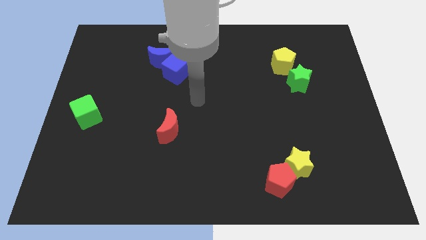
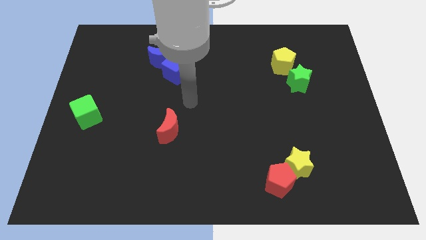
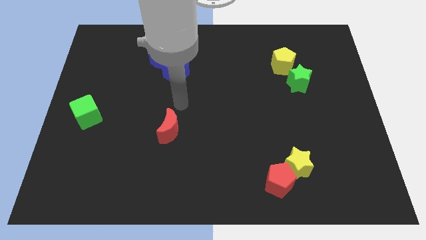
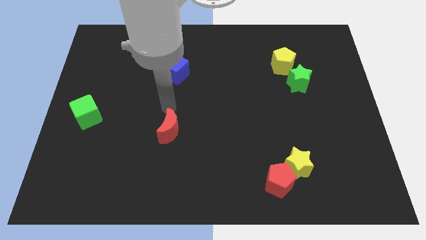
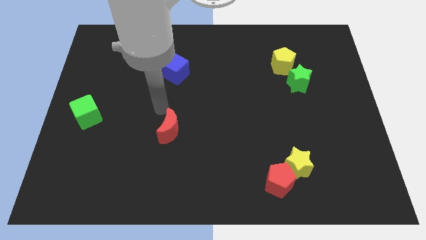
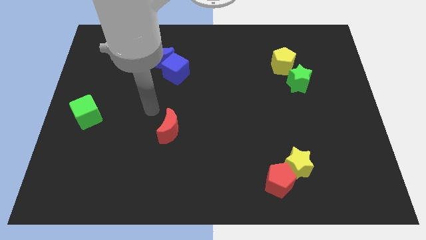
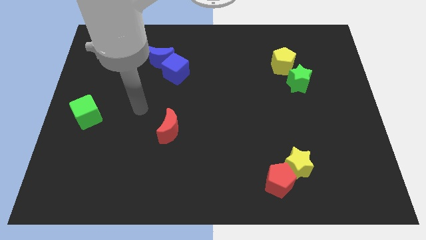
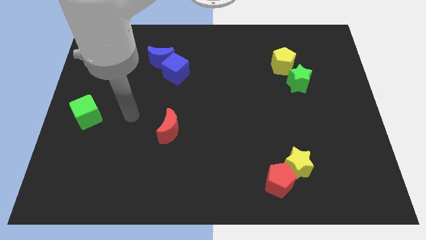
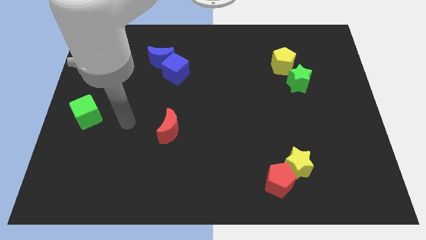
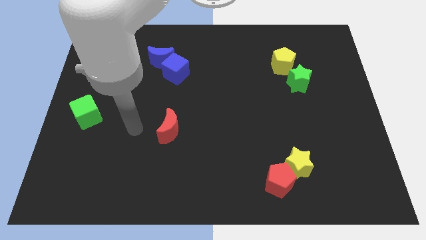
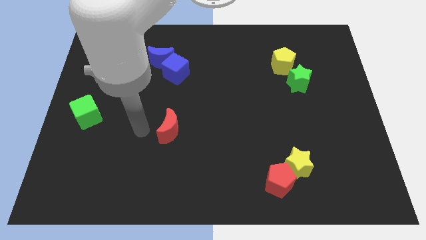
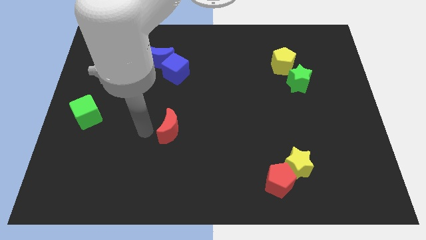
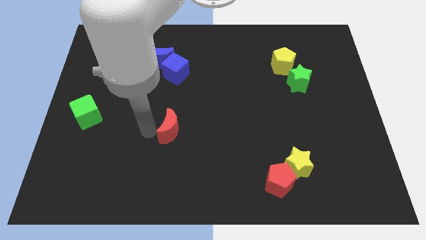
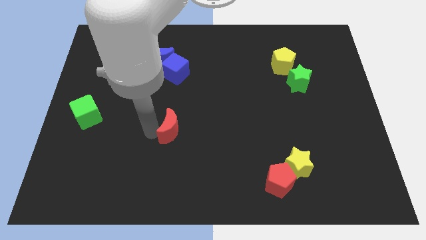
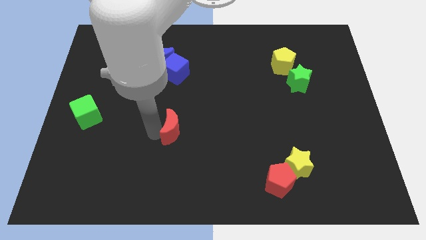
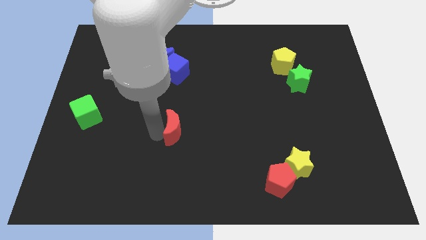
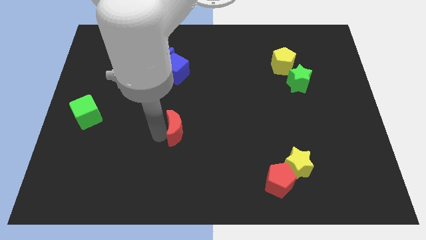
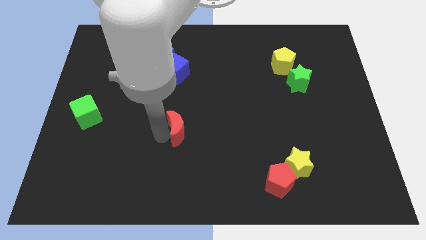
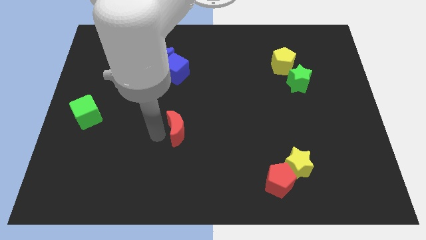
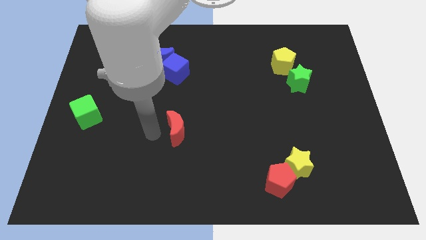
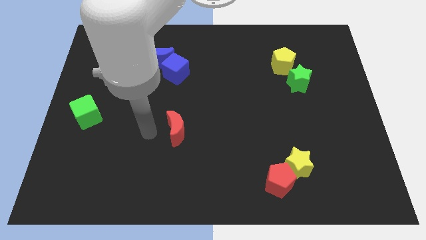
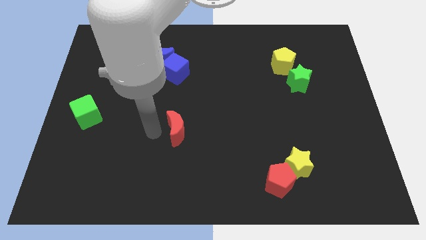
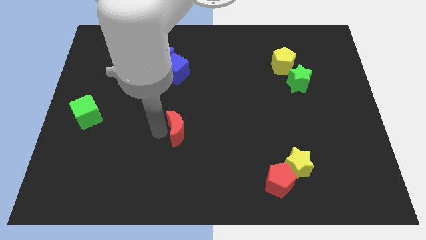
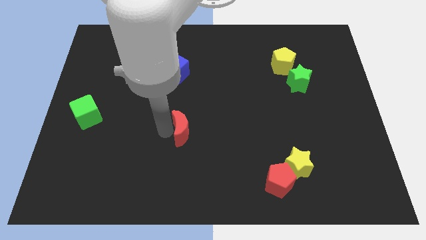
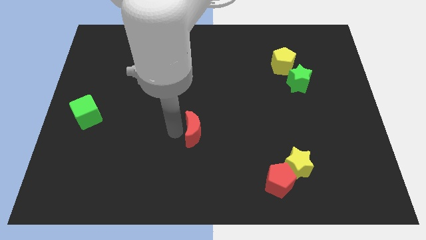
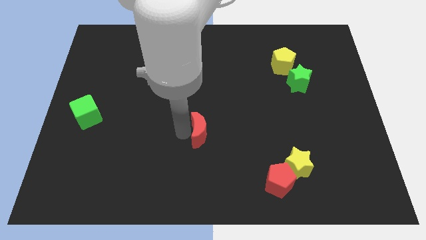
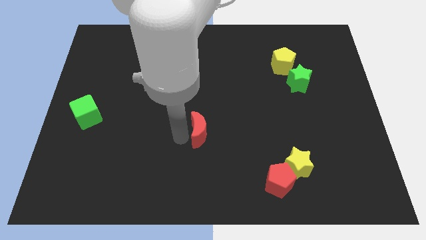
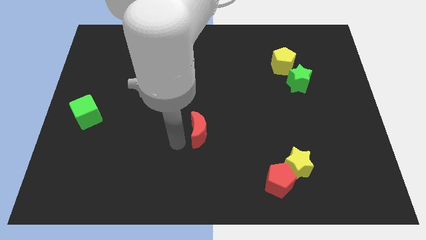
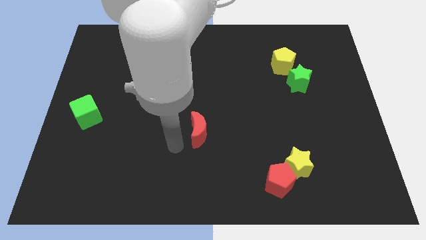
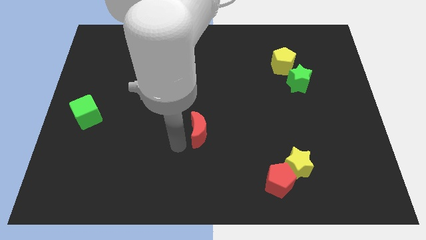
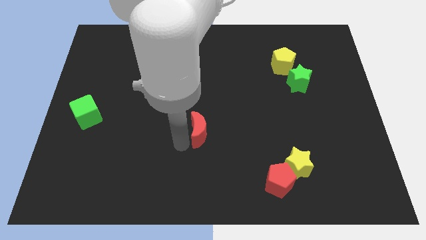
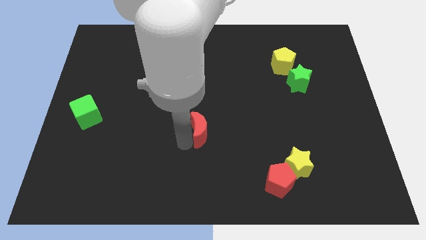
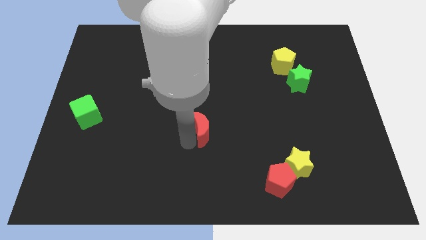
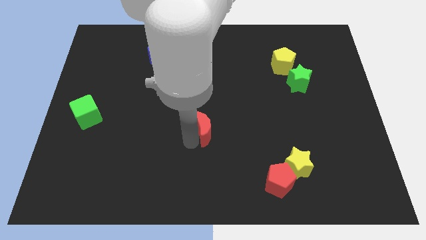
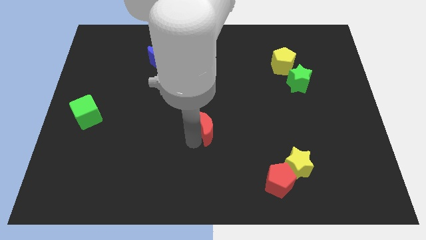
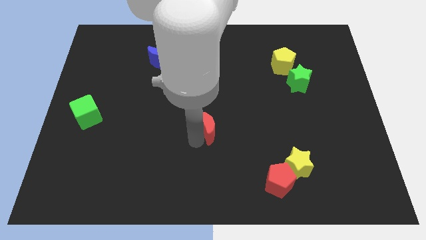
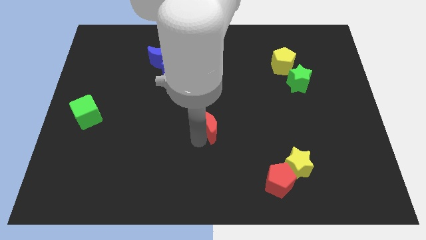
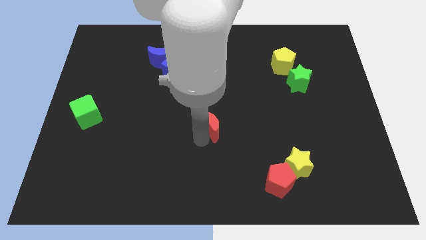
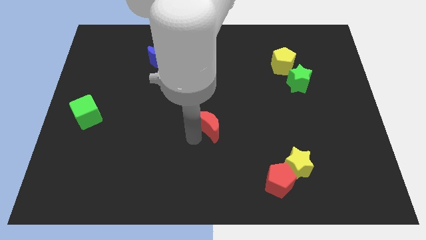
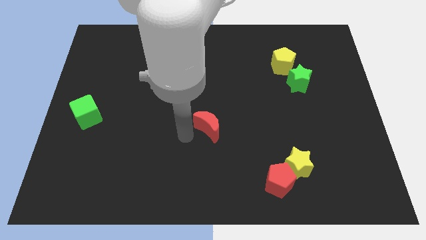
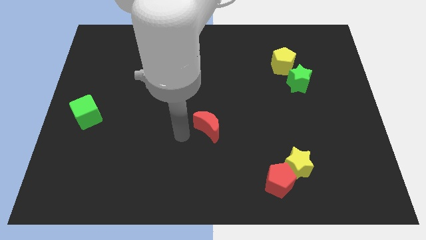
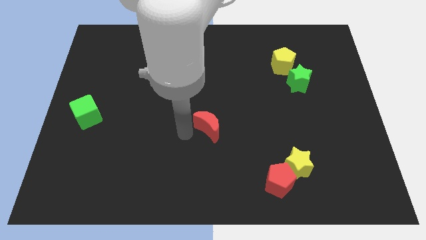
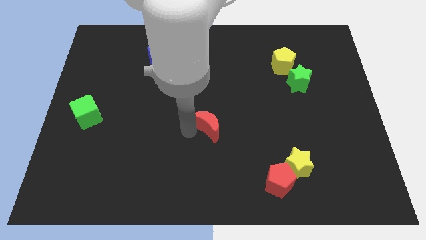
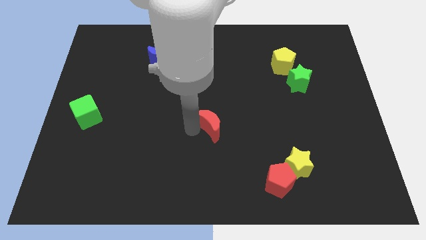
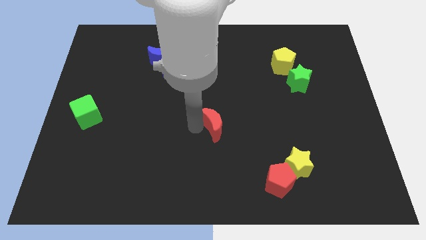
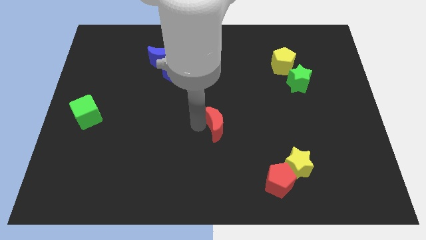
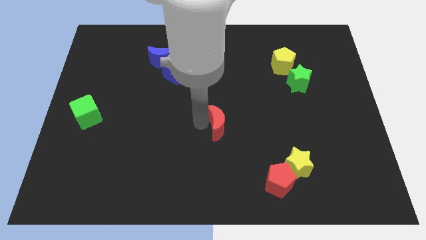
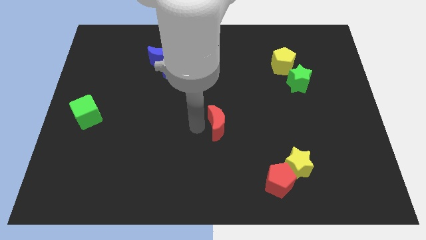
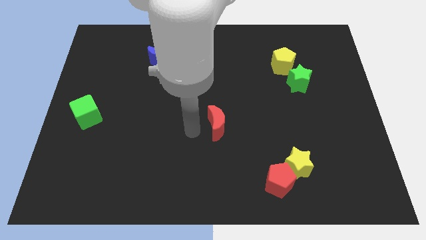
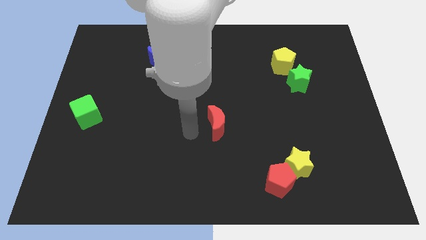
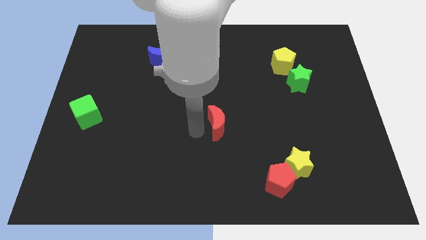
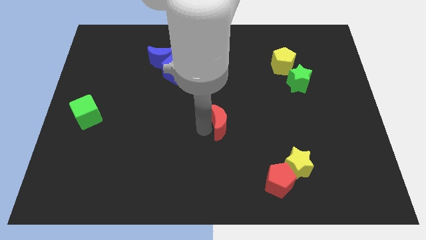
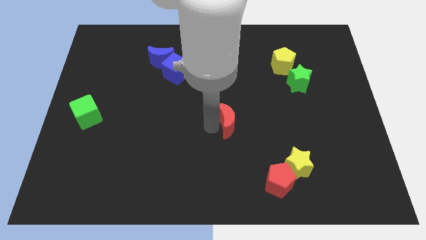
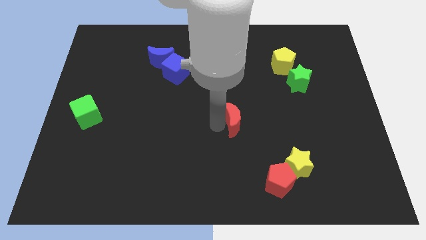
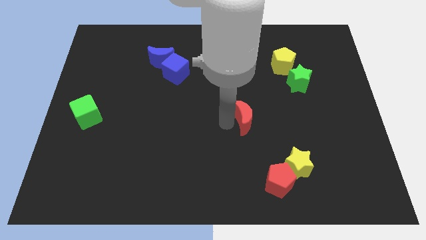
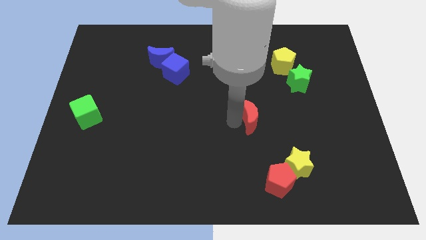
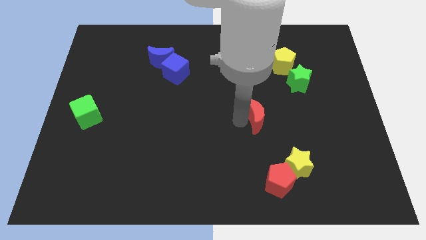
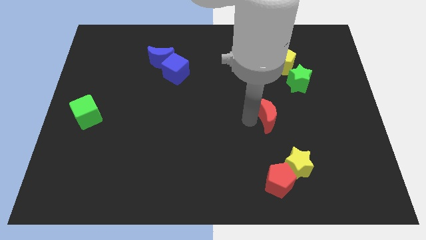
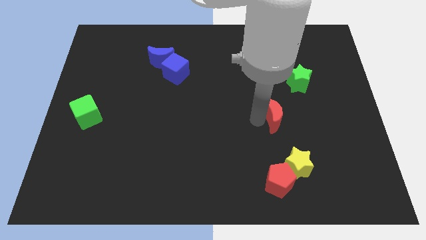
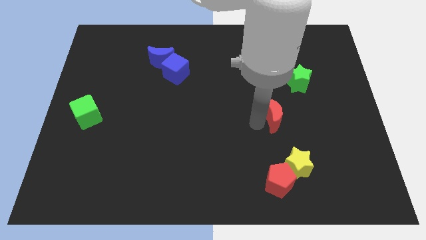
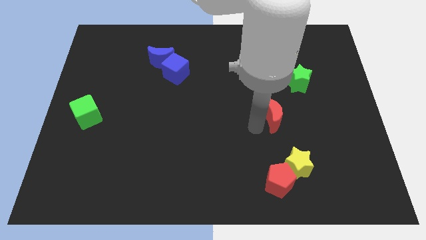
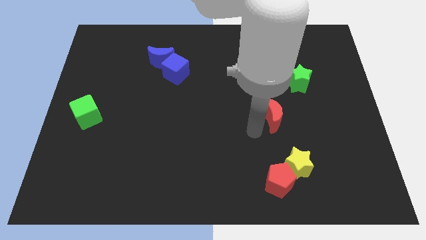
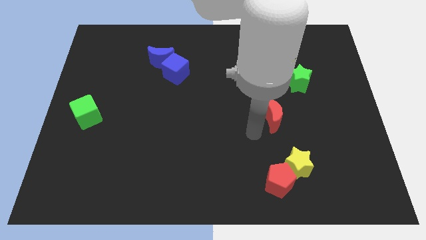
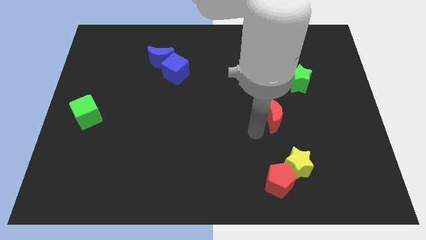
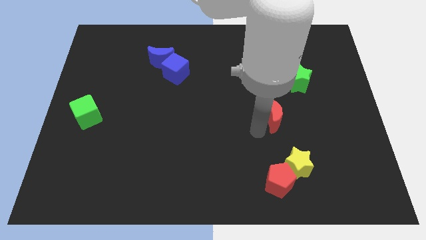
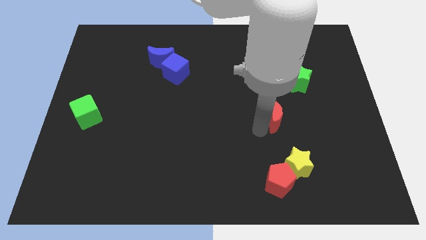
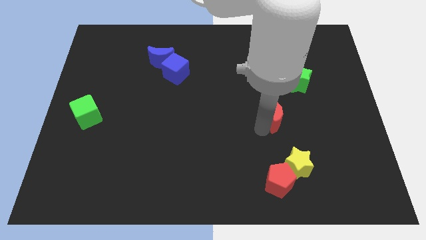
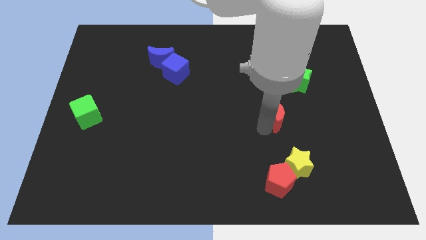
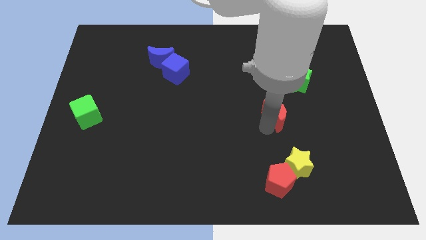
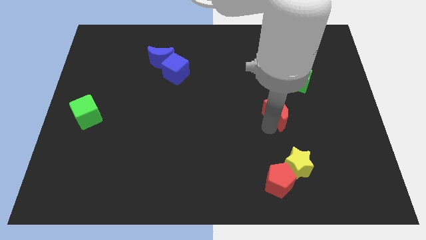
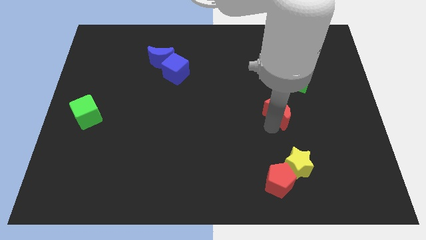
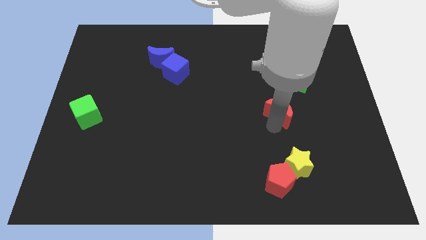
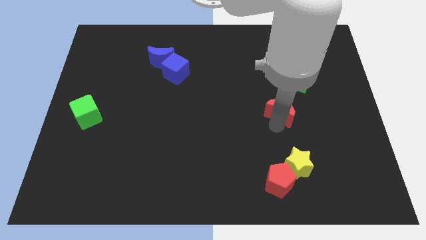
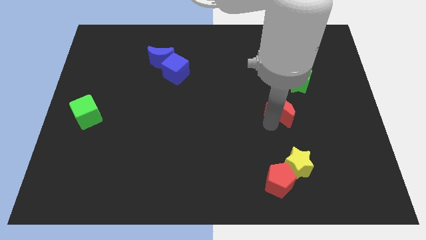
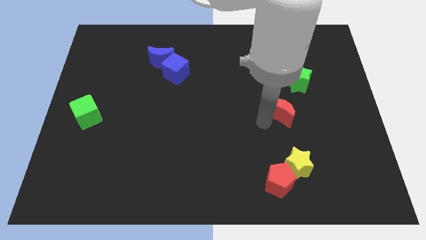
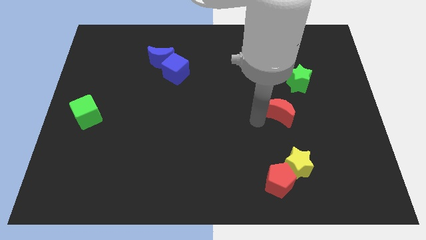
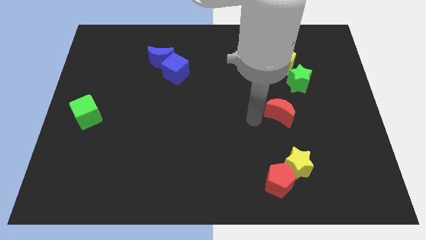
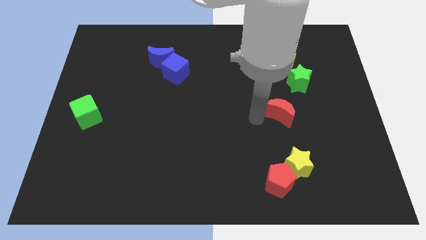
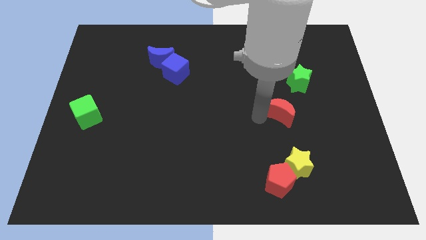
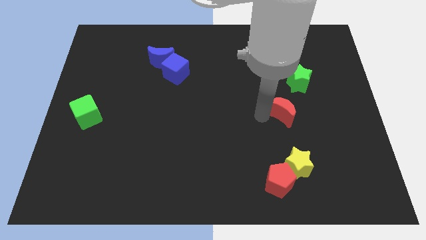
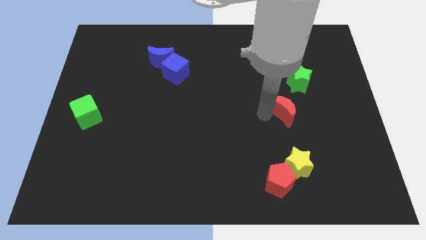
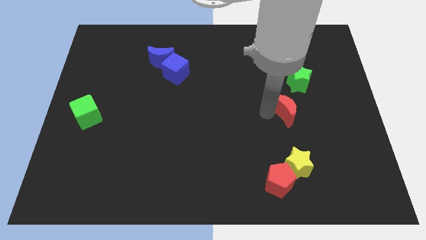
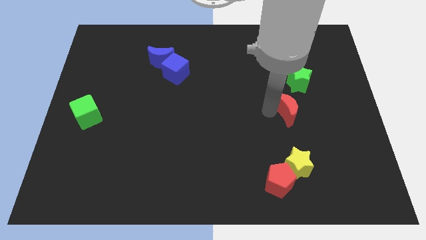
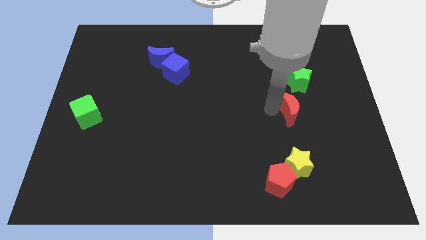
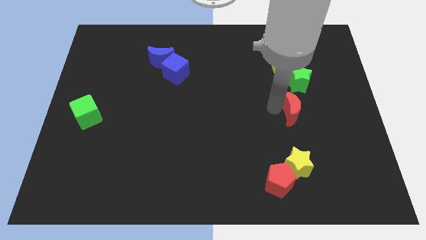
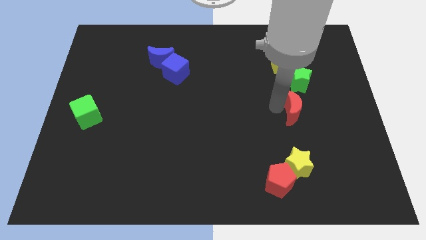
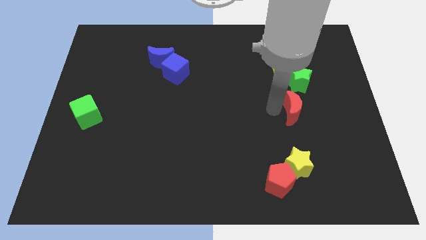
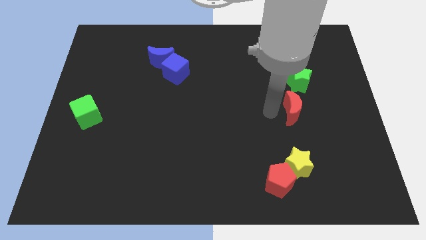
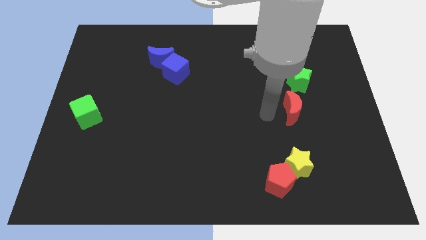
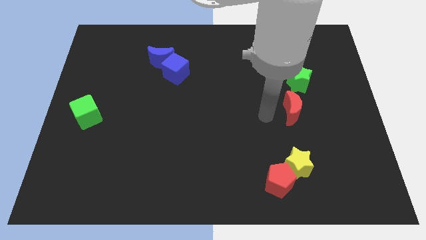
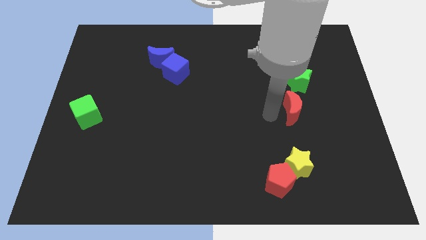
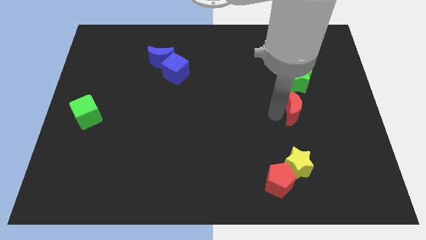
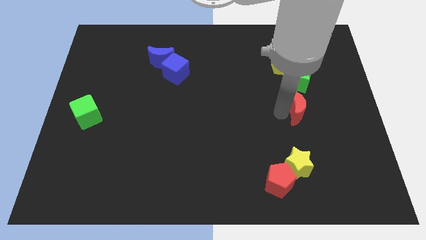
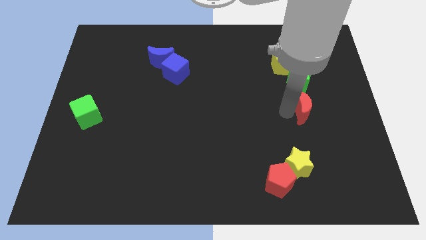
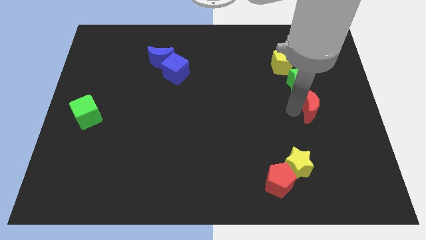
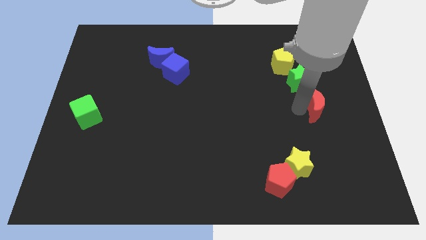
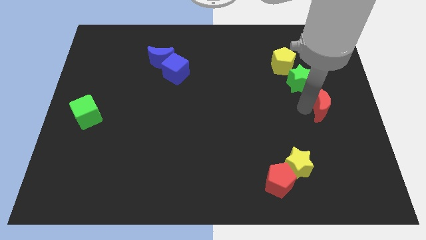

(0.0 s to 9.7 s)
move the red moon to the center right
